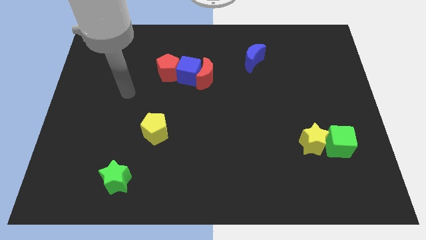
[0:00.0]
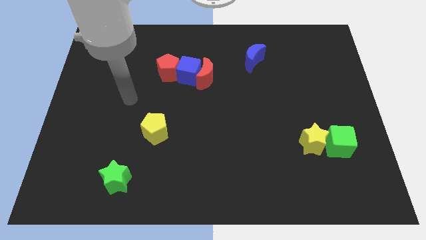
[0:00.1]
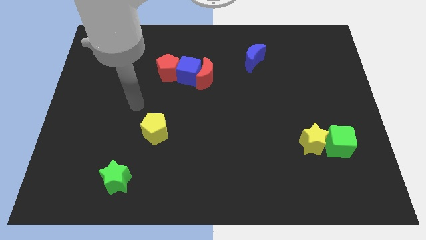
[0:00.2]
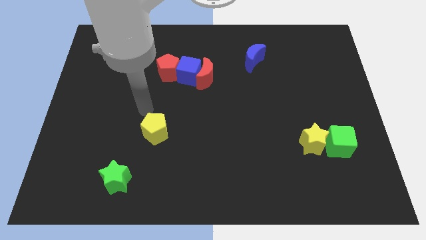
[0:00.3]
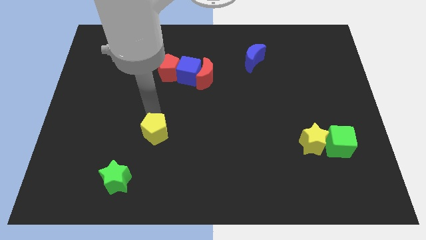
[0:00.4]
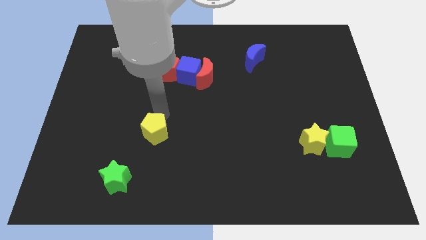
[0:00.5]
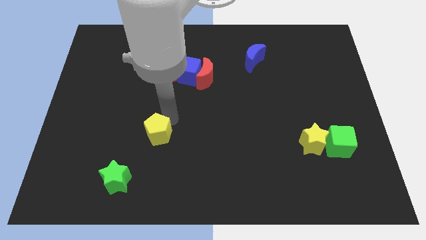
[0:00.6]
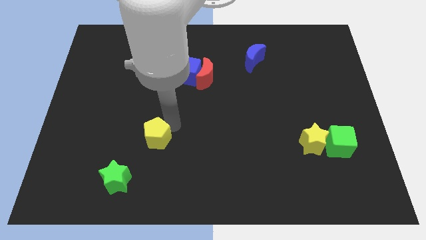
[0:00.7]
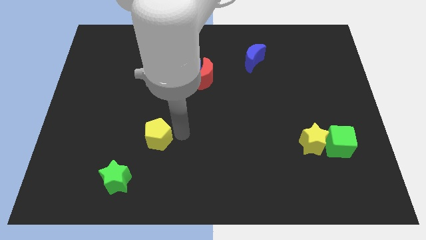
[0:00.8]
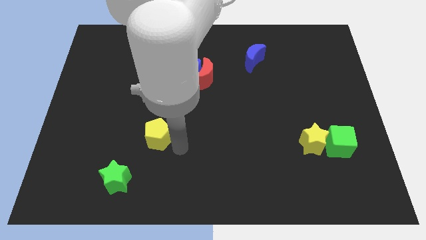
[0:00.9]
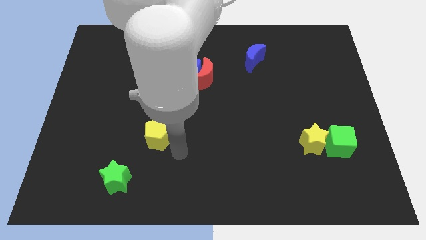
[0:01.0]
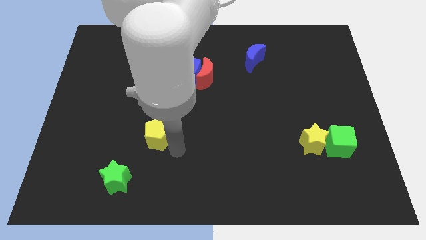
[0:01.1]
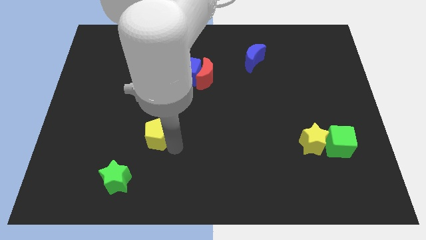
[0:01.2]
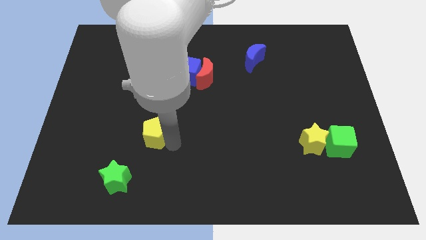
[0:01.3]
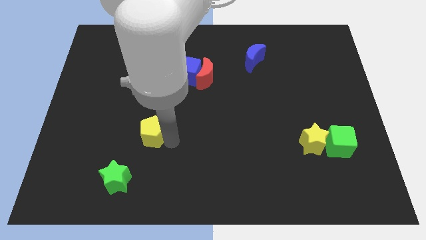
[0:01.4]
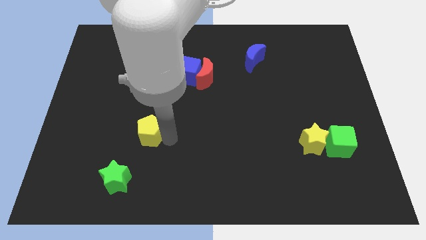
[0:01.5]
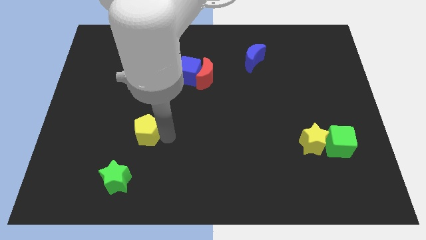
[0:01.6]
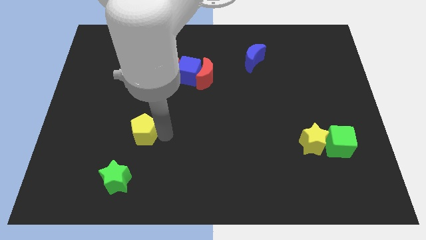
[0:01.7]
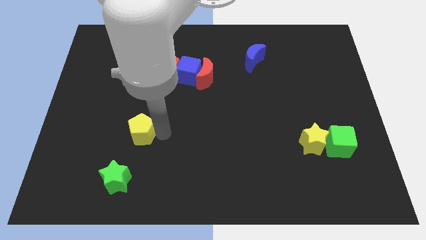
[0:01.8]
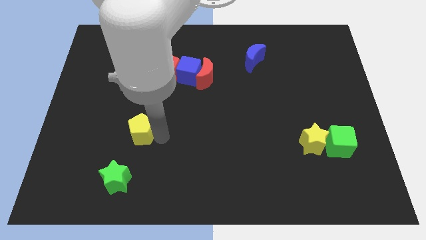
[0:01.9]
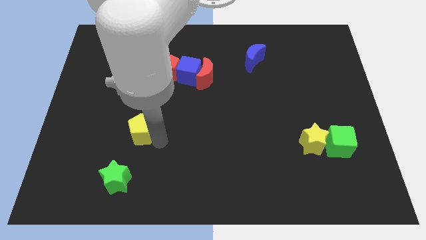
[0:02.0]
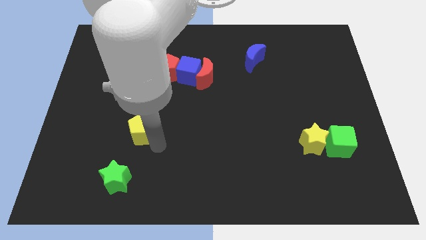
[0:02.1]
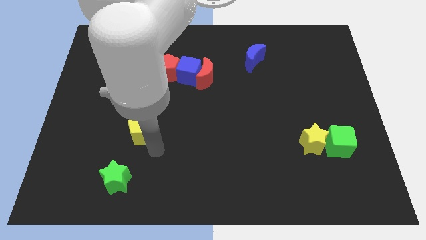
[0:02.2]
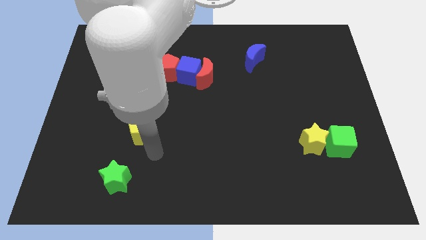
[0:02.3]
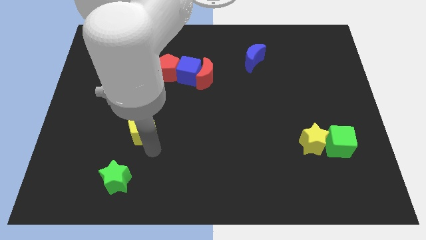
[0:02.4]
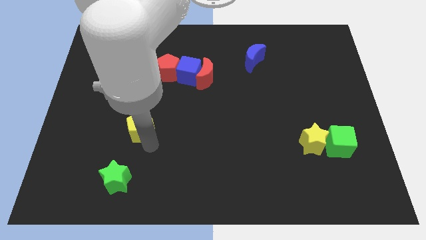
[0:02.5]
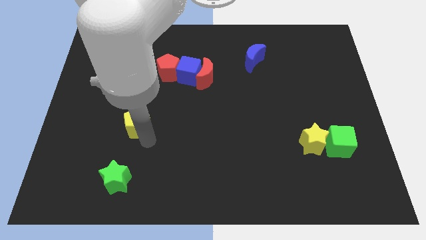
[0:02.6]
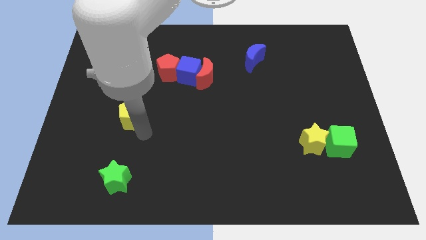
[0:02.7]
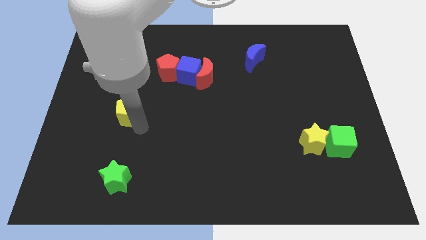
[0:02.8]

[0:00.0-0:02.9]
move the yellow pentagon a little bit upwards and left diagonally

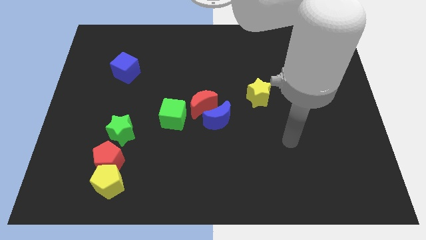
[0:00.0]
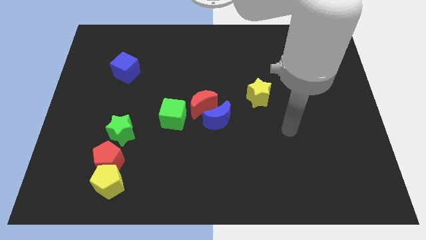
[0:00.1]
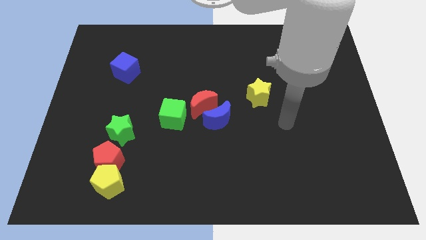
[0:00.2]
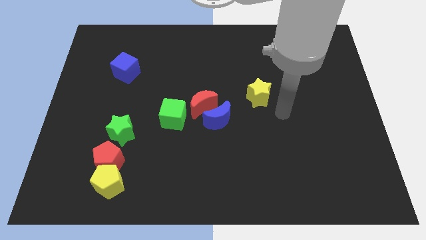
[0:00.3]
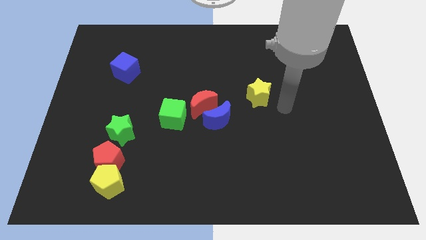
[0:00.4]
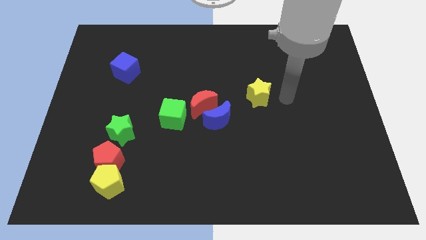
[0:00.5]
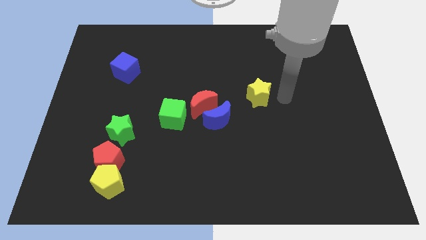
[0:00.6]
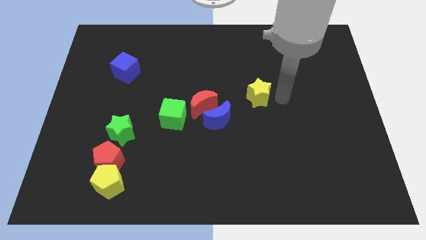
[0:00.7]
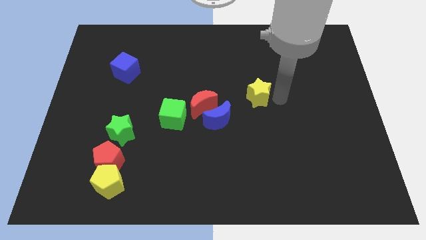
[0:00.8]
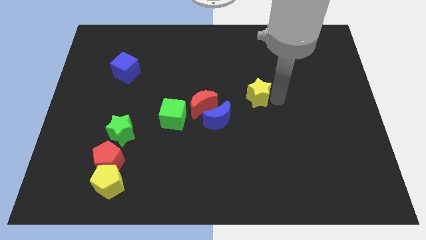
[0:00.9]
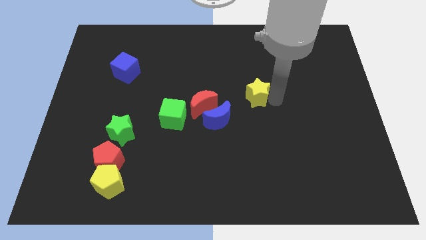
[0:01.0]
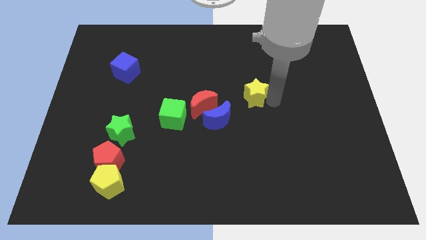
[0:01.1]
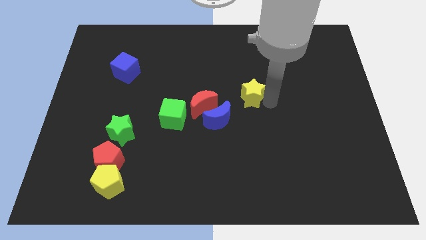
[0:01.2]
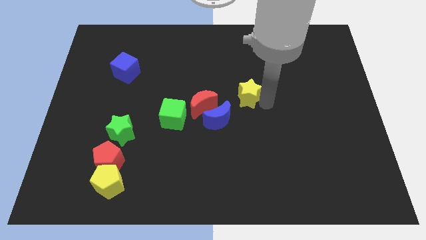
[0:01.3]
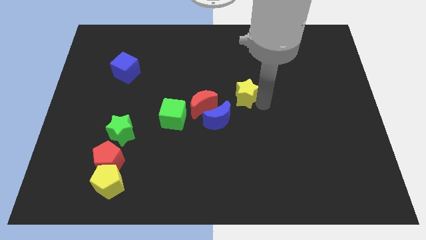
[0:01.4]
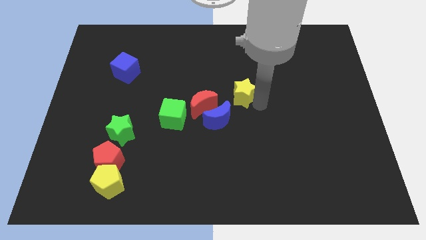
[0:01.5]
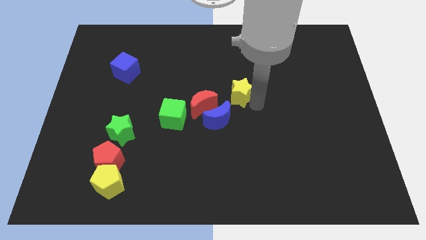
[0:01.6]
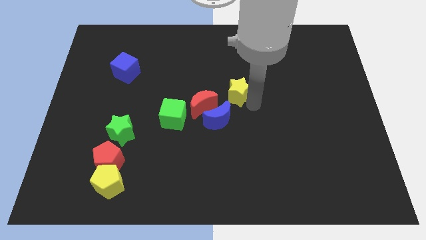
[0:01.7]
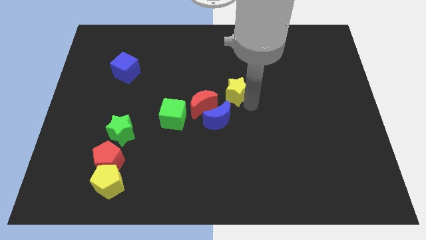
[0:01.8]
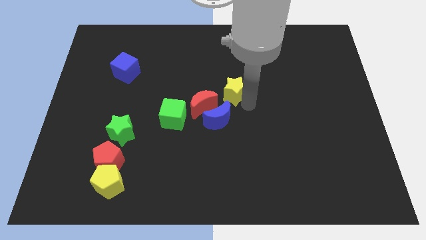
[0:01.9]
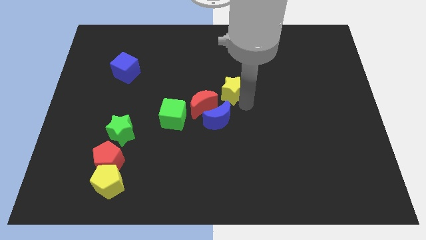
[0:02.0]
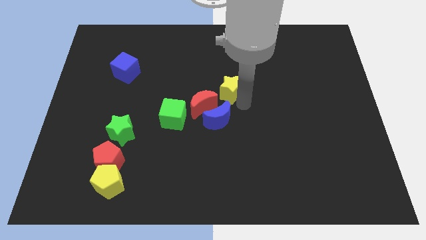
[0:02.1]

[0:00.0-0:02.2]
slide the yellow star to the left somewhat

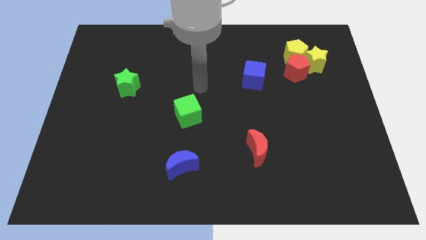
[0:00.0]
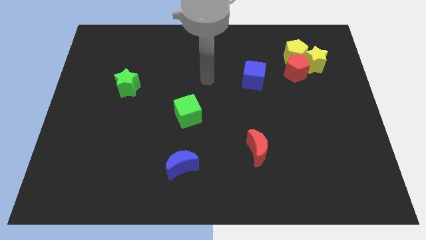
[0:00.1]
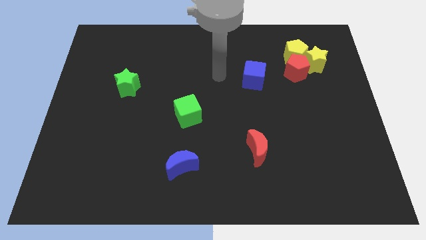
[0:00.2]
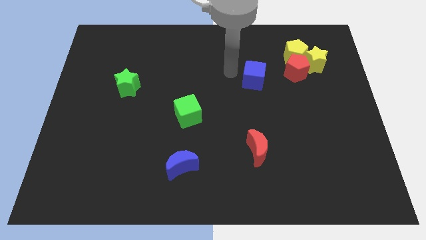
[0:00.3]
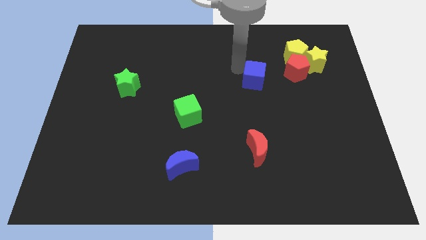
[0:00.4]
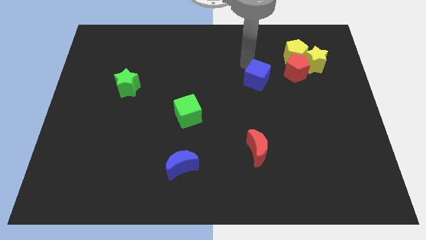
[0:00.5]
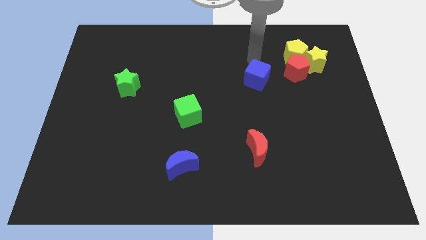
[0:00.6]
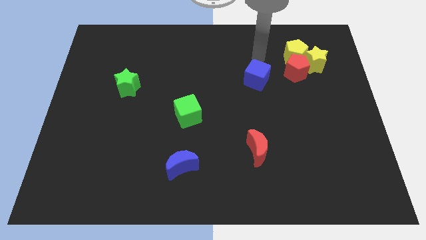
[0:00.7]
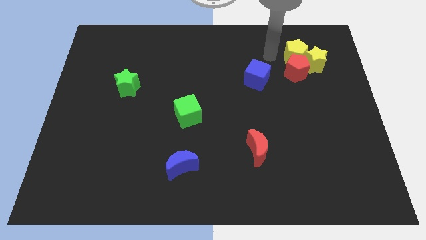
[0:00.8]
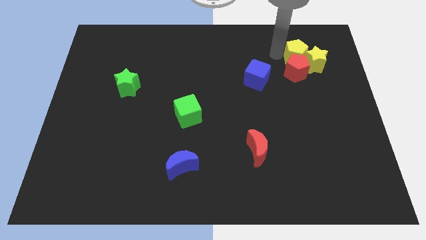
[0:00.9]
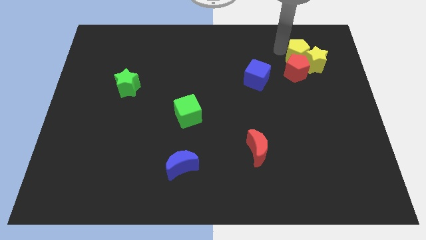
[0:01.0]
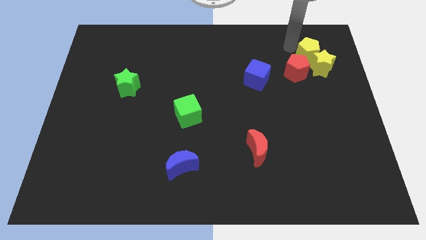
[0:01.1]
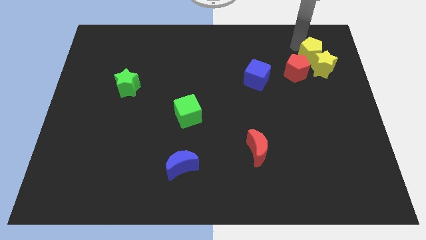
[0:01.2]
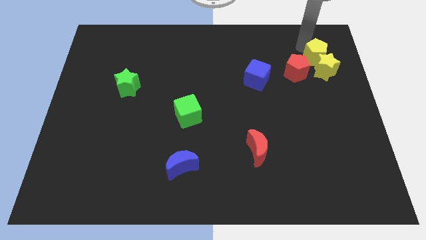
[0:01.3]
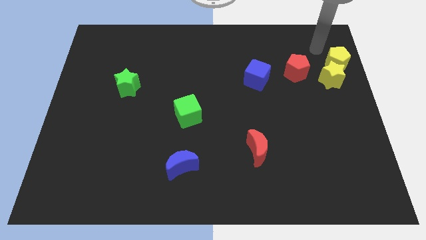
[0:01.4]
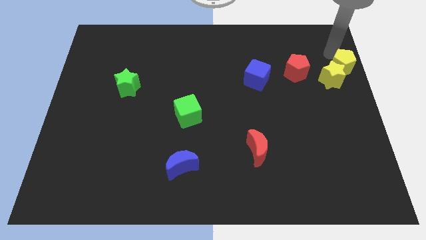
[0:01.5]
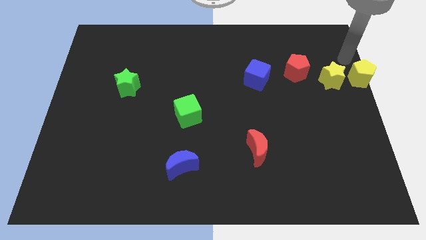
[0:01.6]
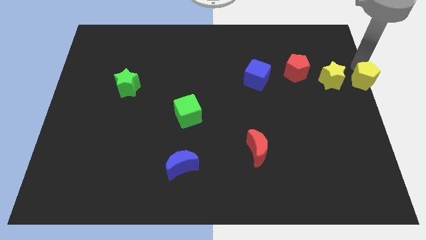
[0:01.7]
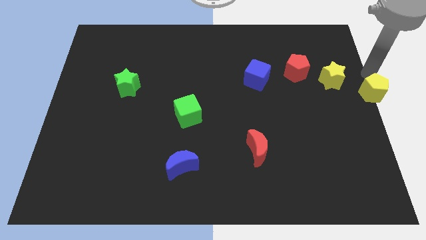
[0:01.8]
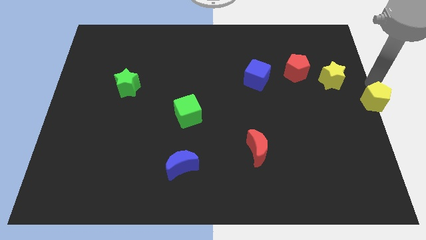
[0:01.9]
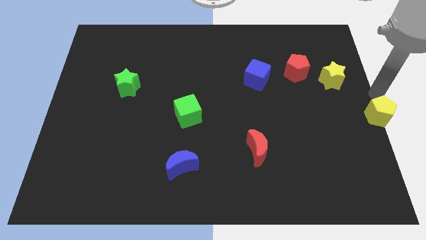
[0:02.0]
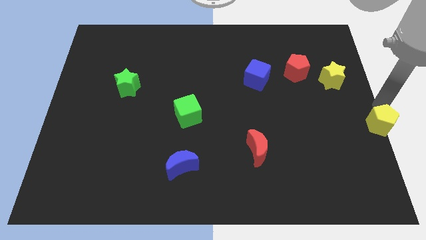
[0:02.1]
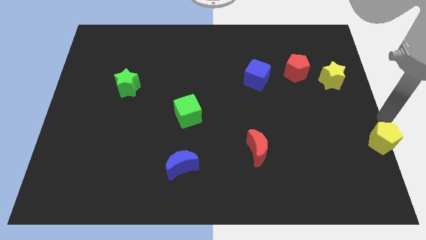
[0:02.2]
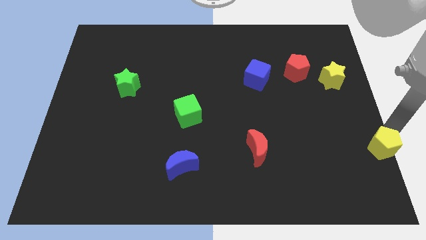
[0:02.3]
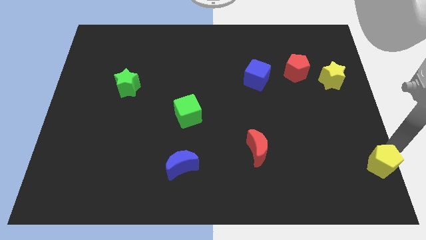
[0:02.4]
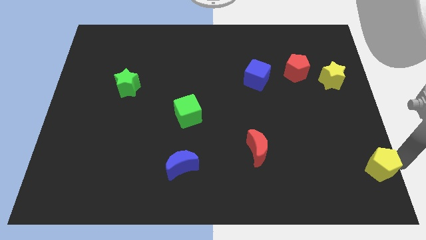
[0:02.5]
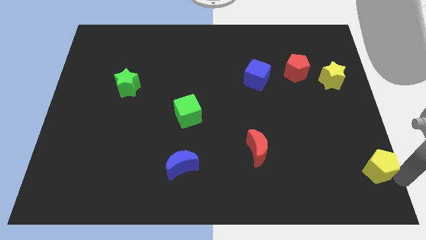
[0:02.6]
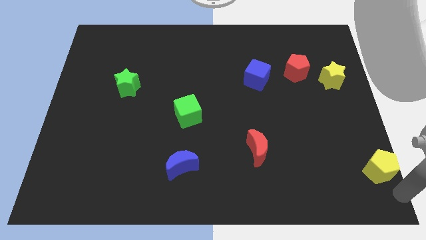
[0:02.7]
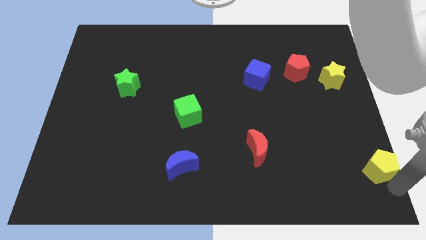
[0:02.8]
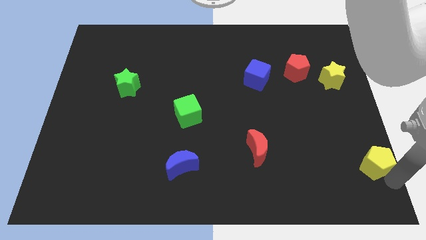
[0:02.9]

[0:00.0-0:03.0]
move the yellow pentagon downwards
